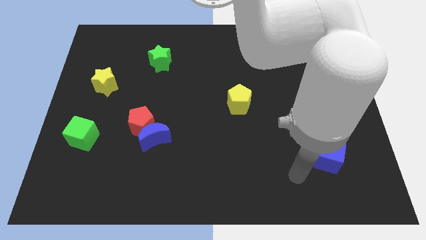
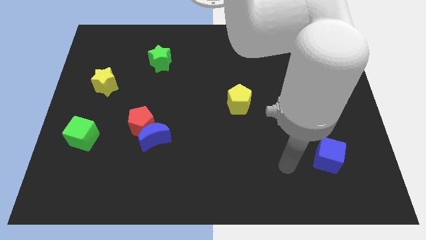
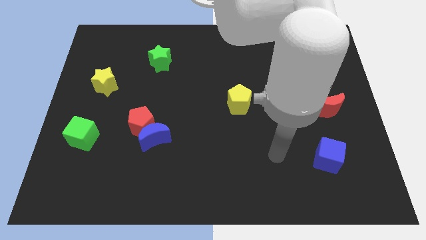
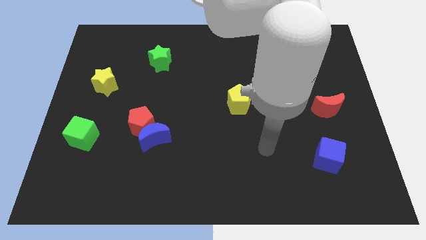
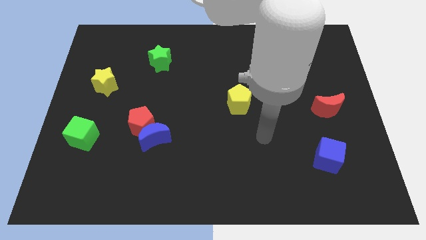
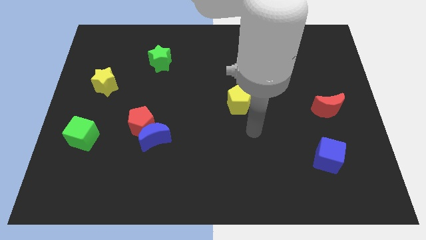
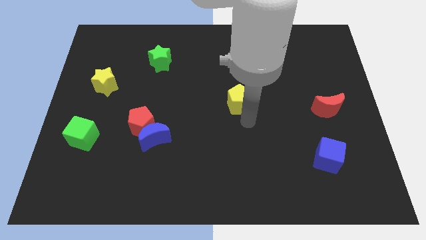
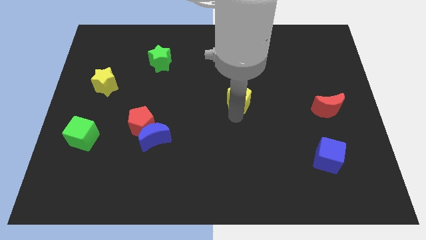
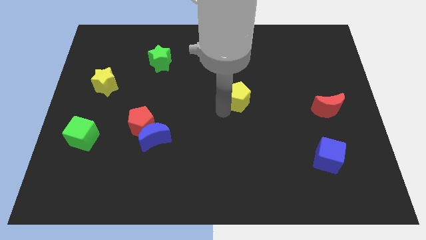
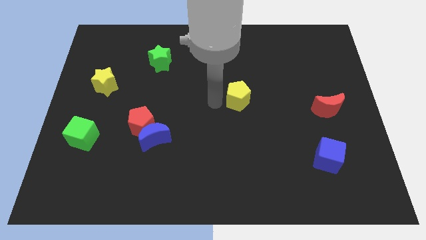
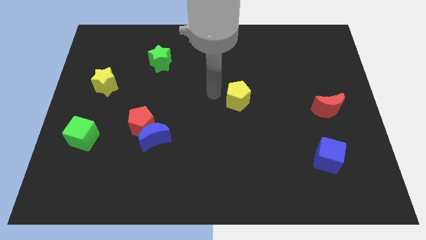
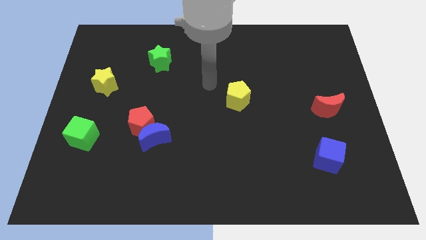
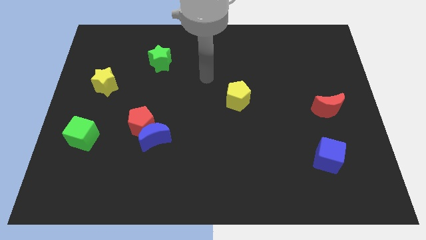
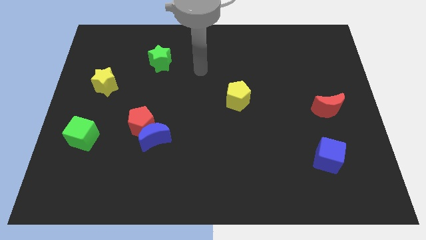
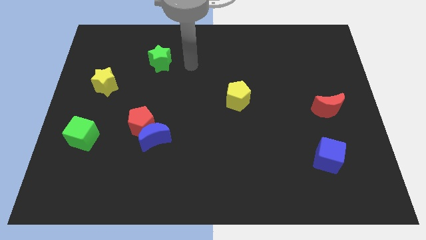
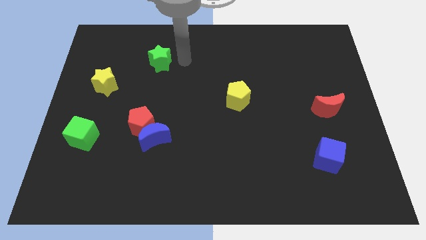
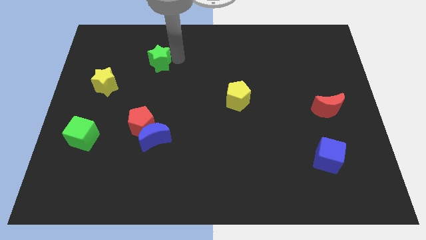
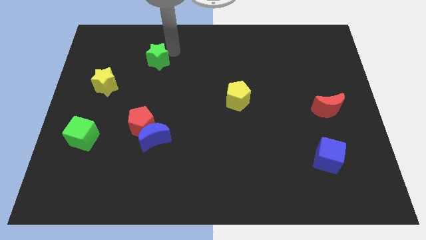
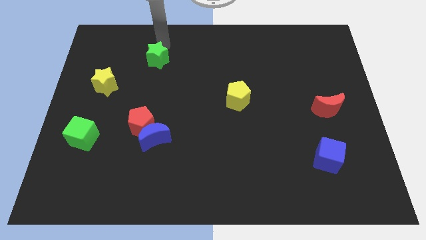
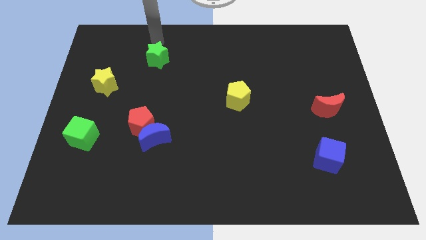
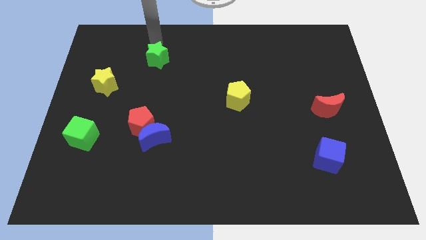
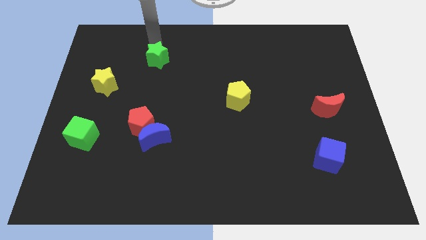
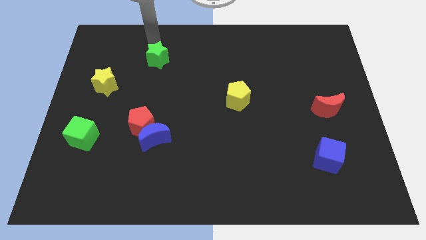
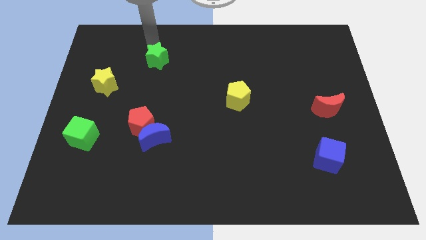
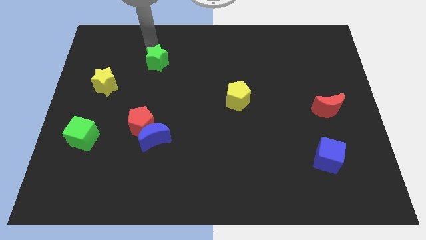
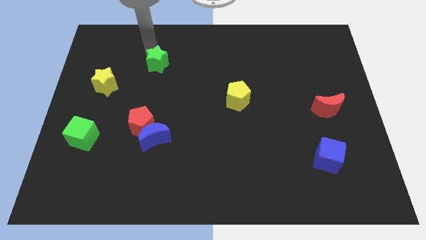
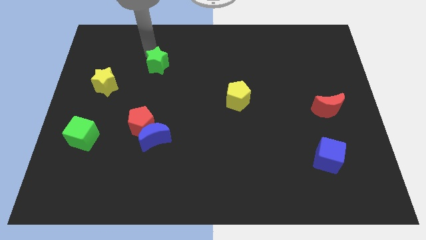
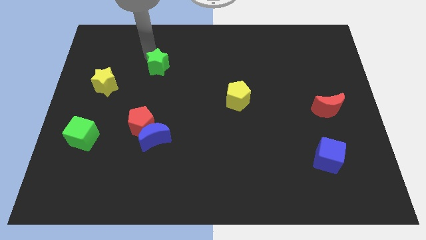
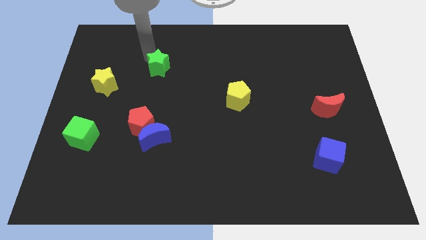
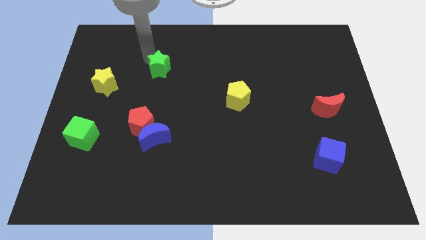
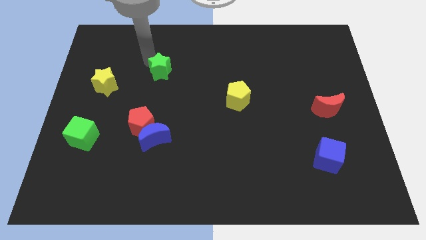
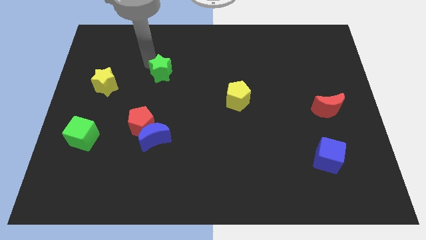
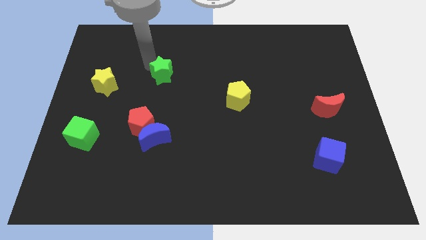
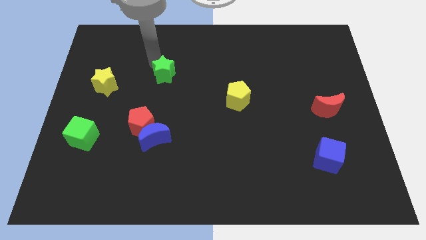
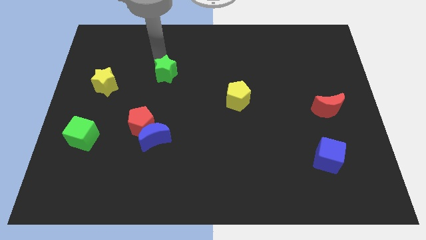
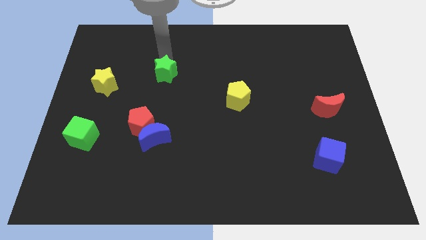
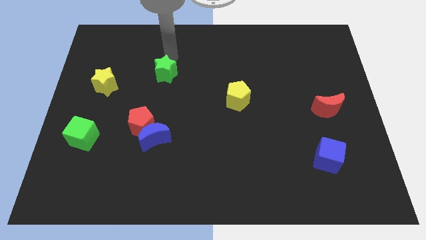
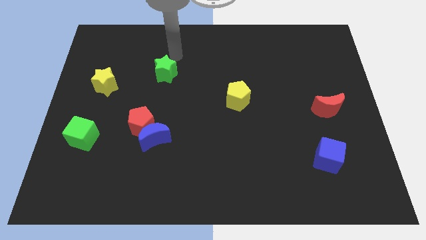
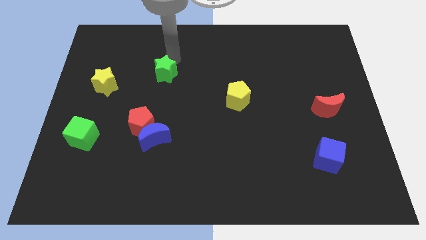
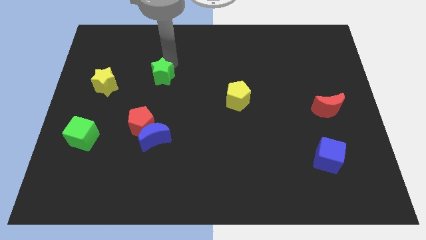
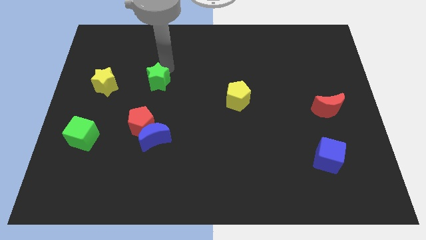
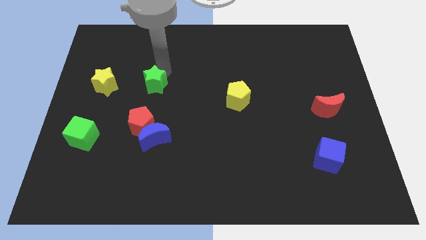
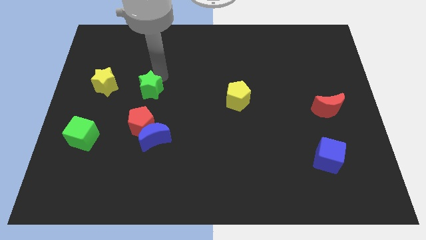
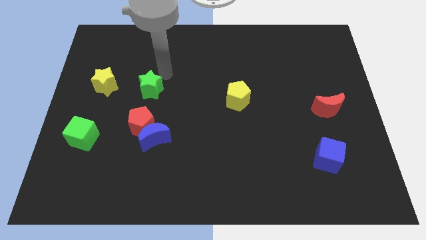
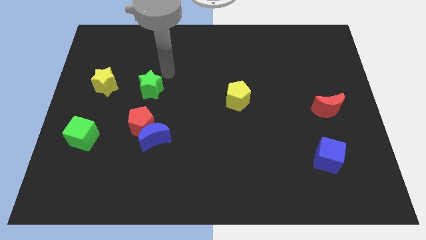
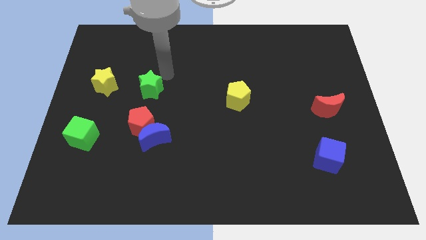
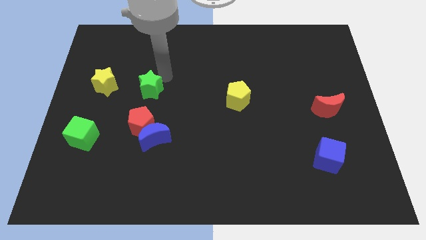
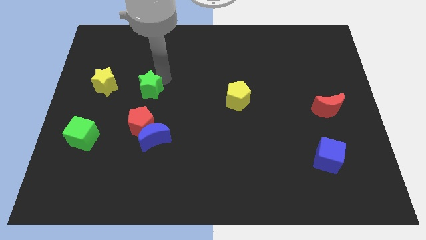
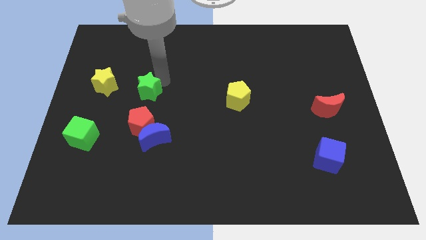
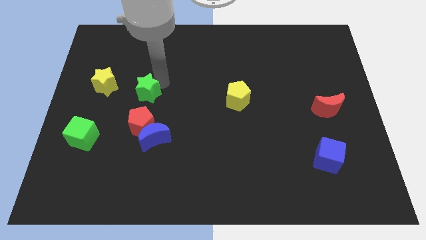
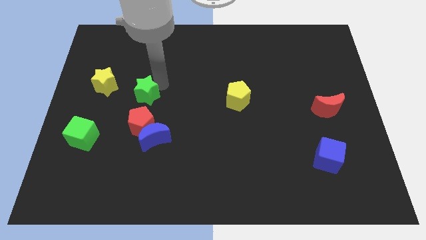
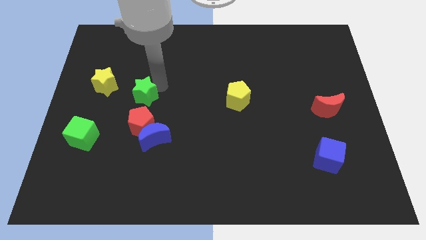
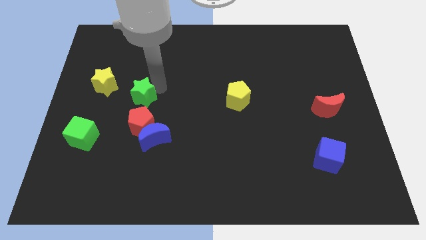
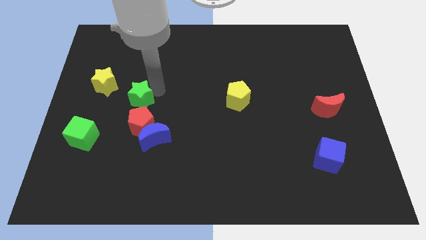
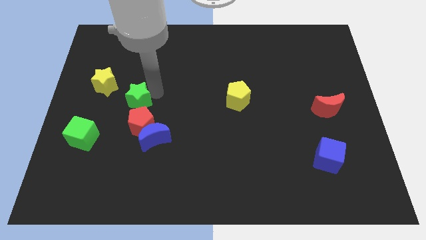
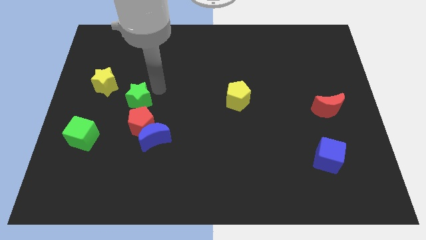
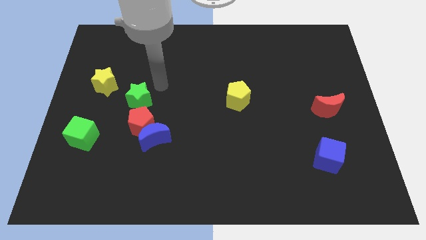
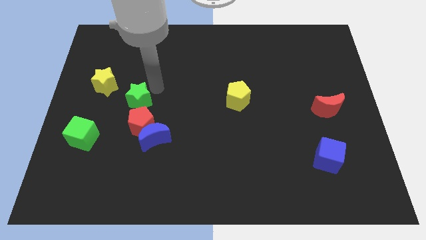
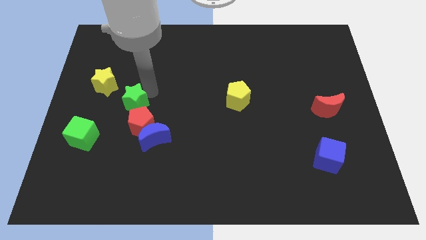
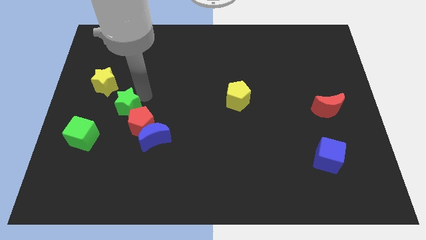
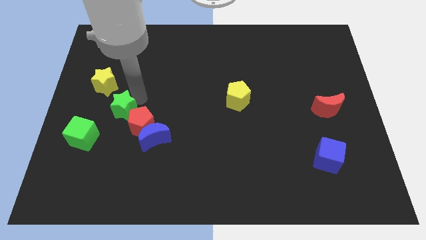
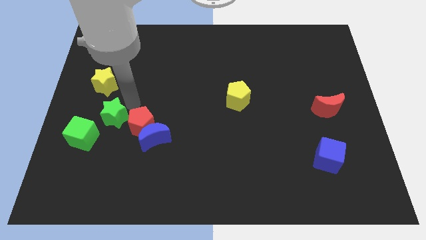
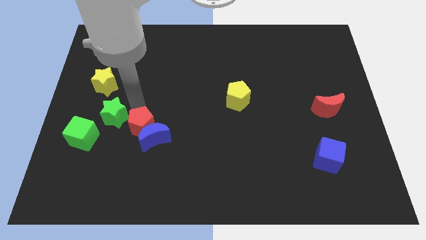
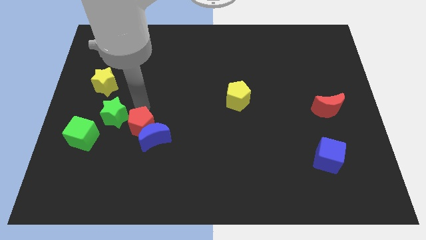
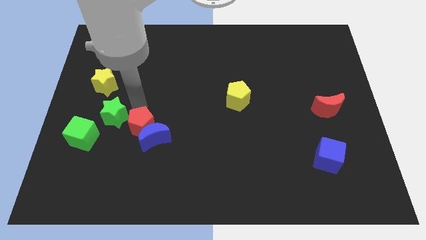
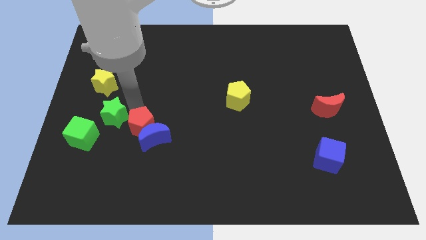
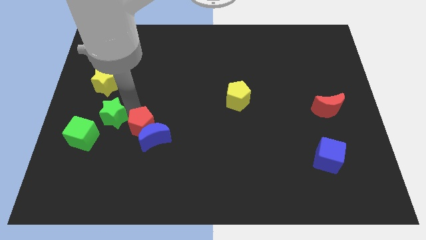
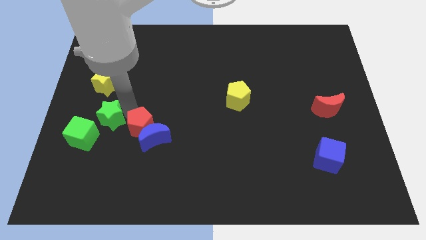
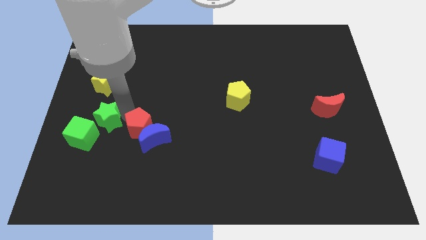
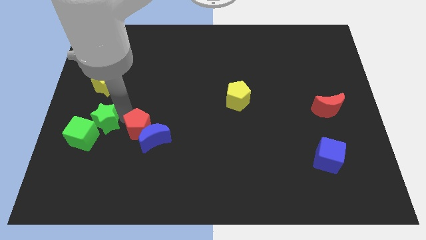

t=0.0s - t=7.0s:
put the green star close to the green cube

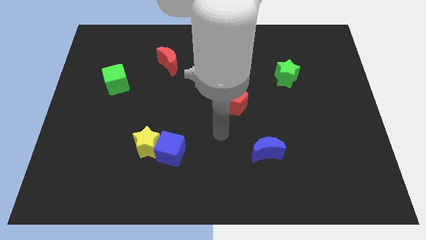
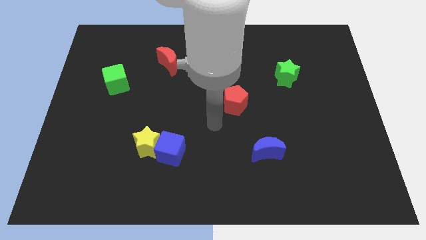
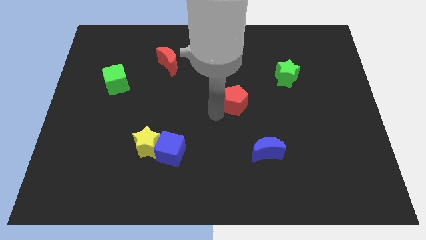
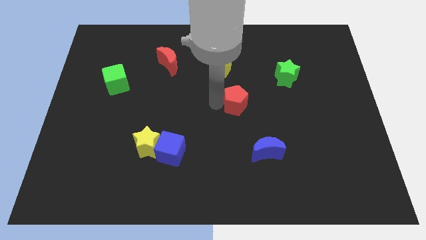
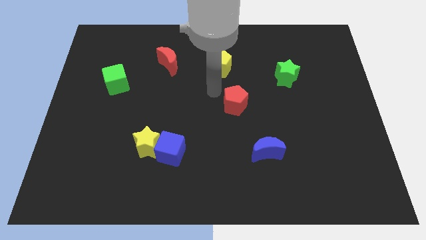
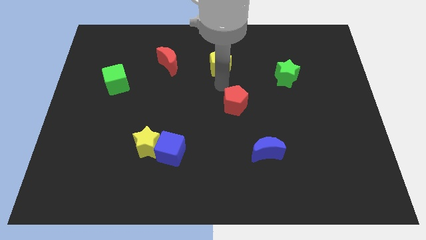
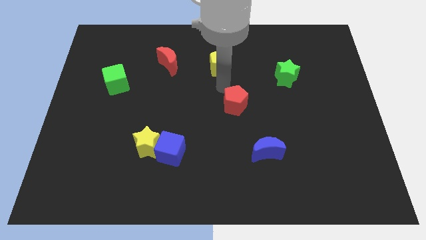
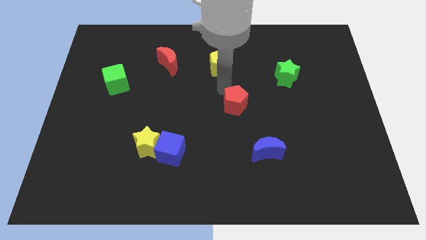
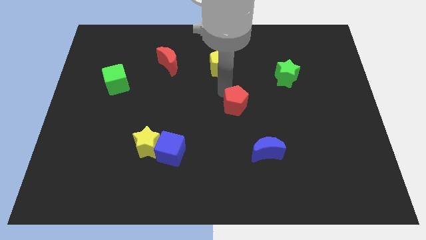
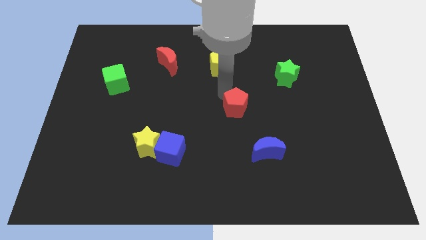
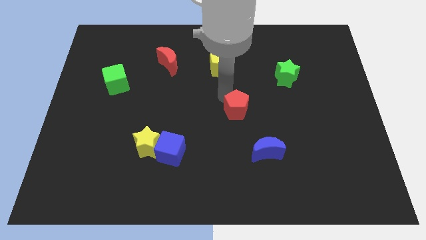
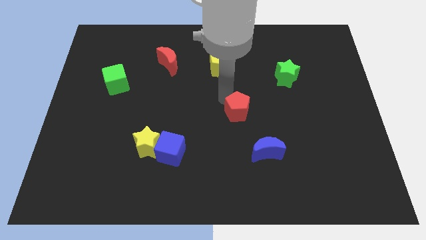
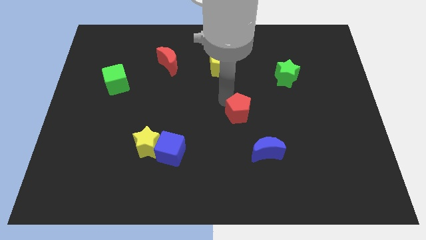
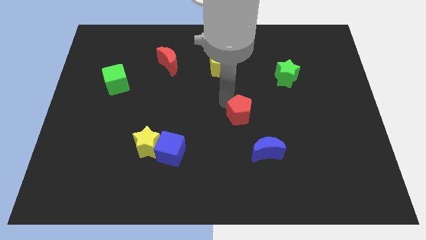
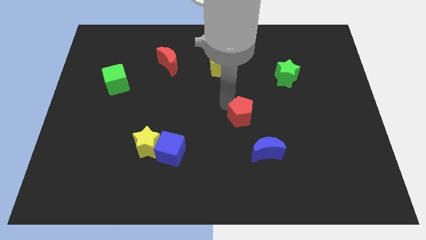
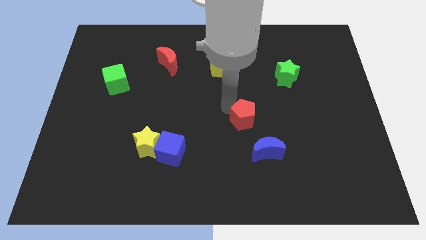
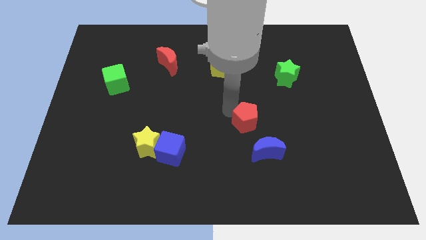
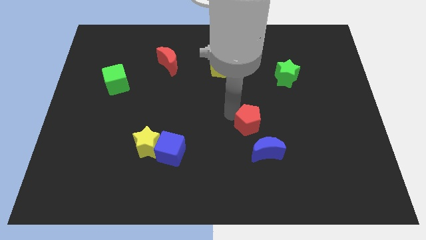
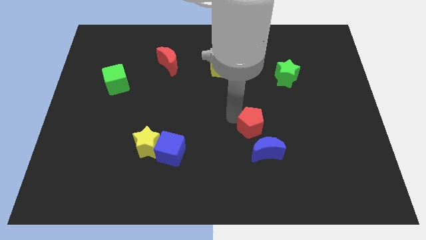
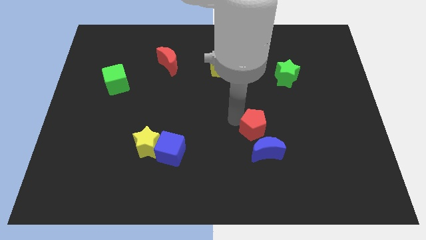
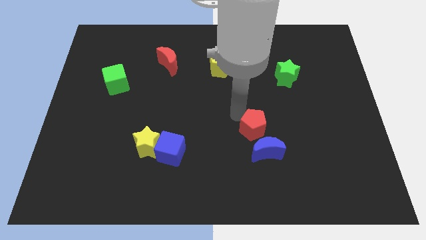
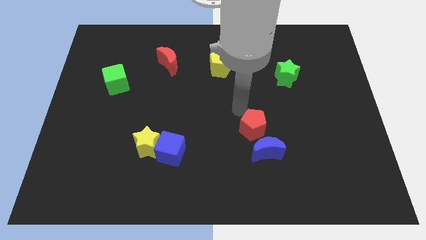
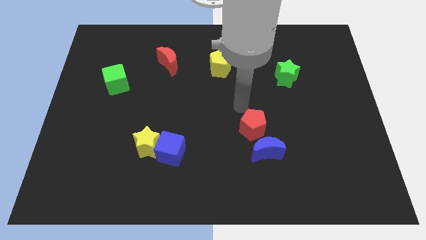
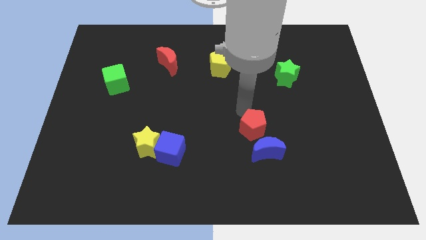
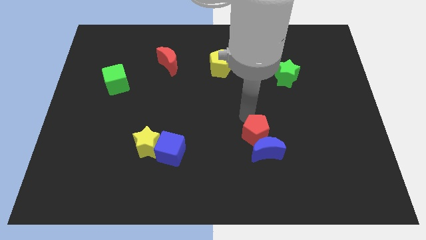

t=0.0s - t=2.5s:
push the red pentagon next to the blue moon
